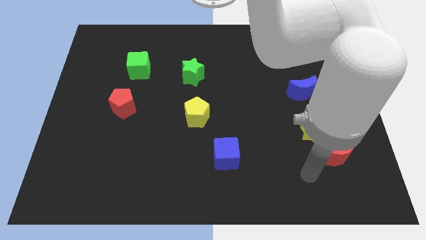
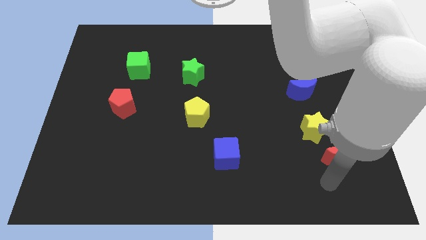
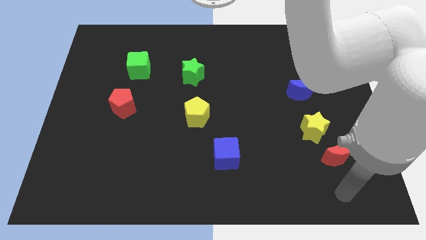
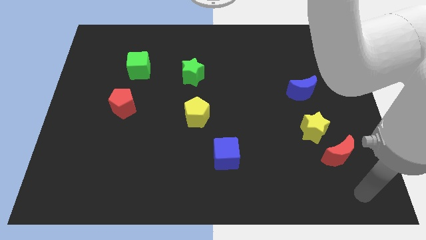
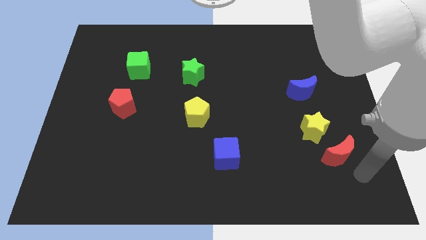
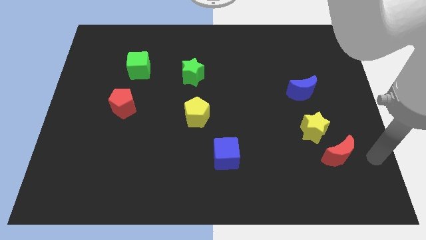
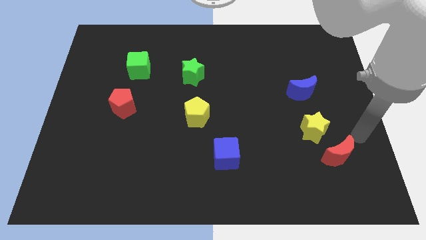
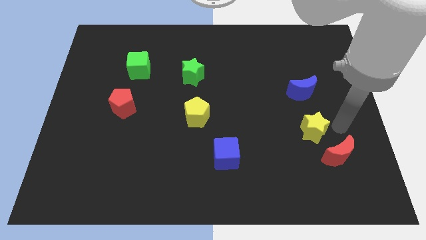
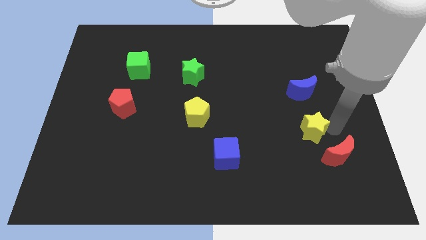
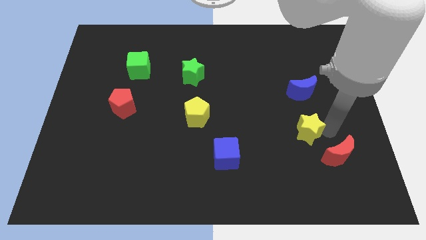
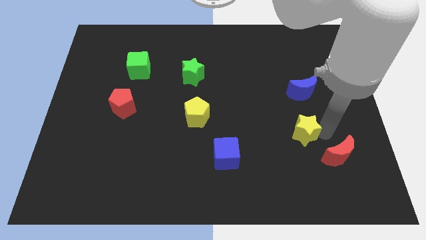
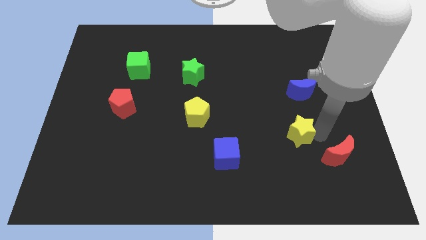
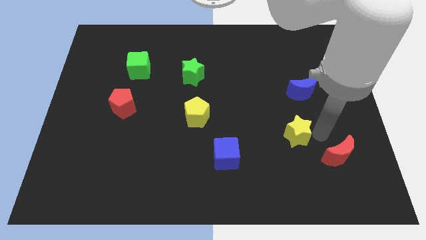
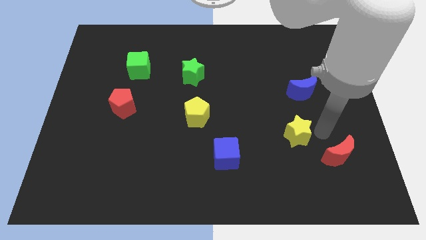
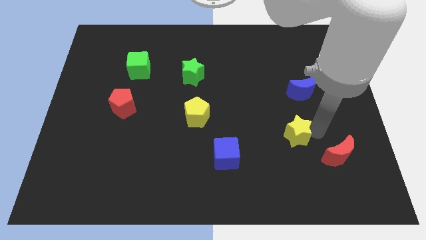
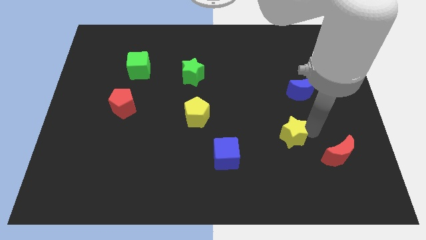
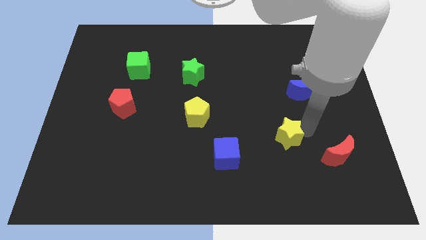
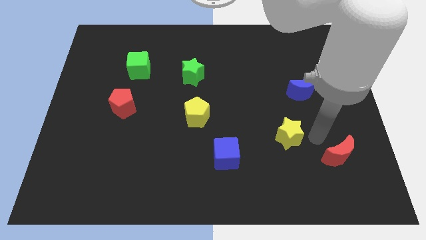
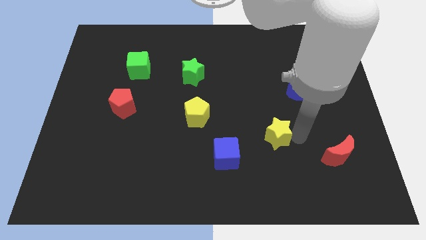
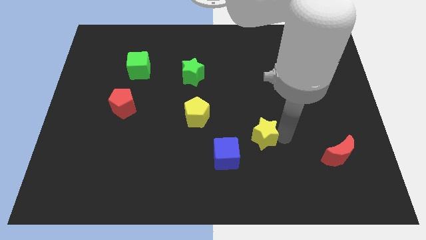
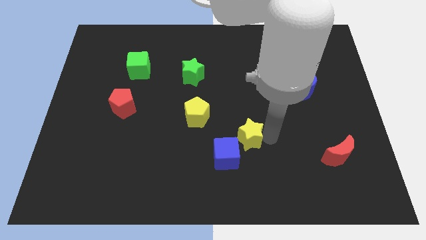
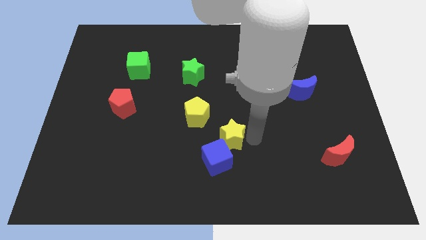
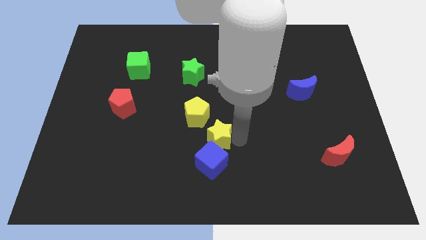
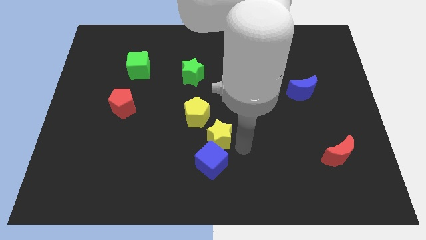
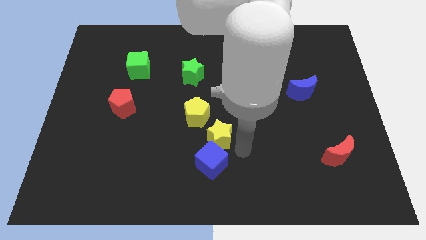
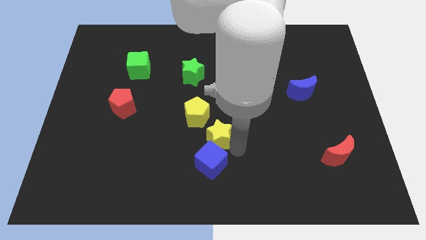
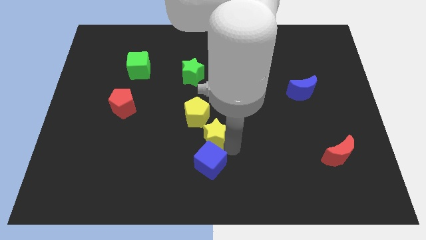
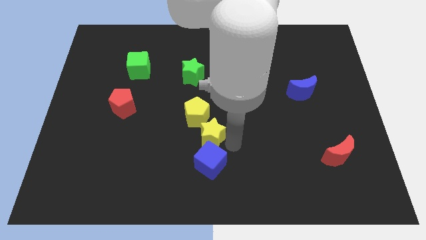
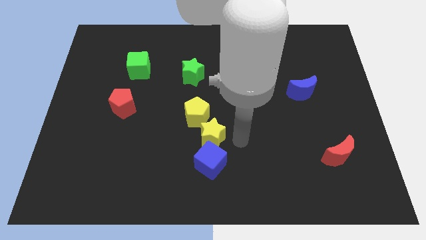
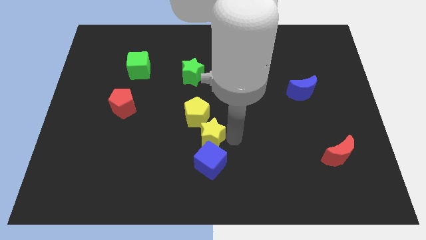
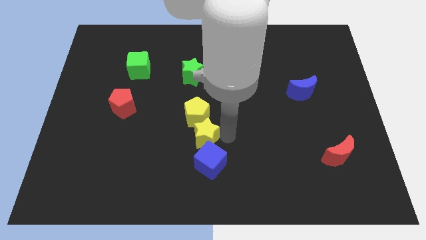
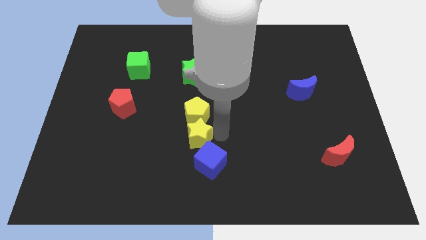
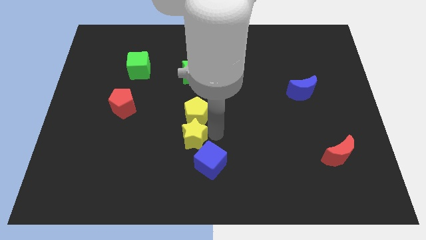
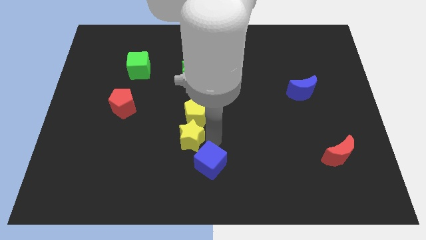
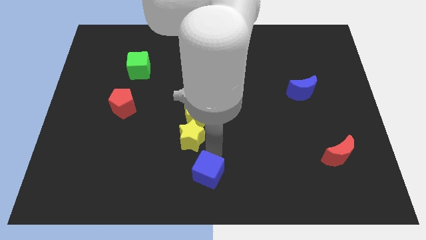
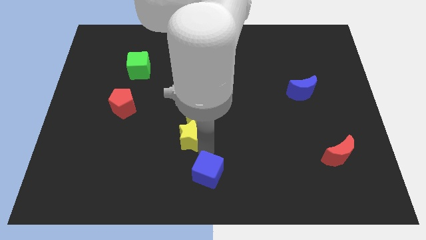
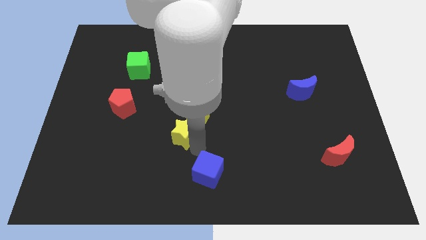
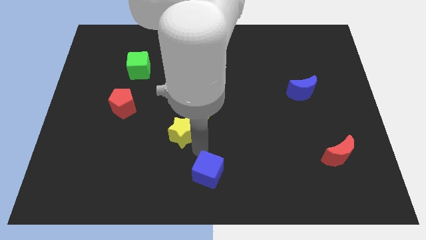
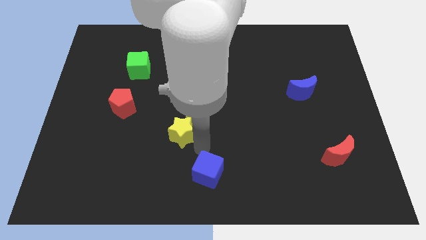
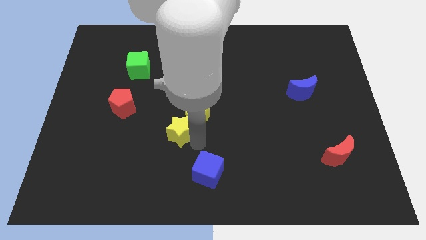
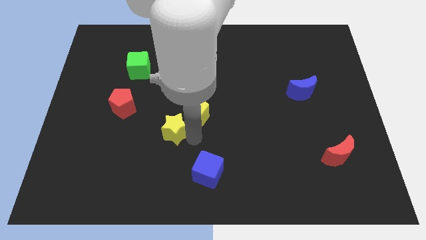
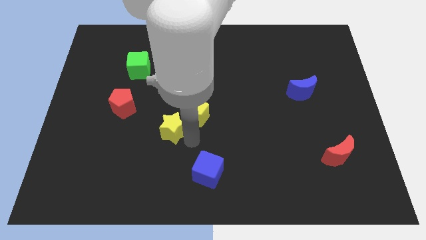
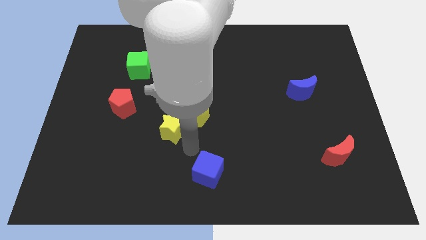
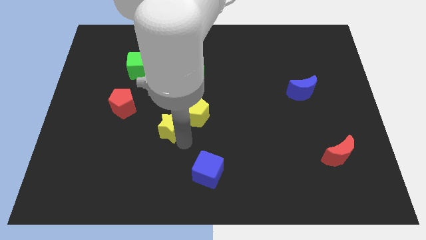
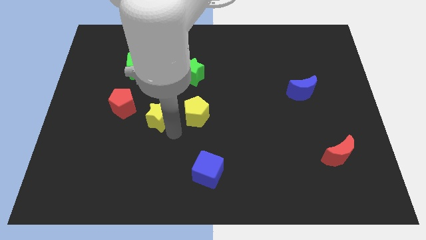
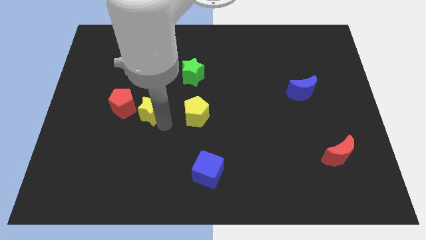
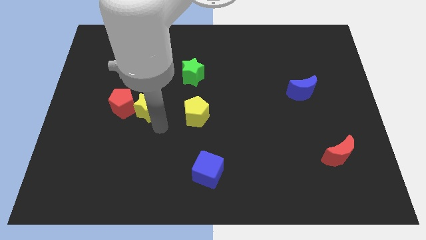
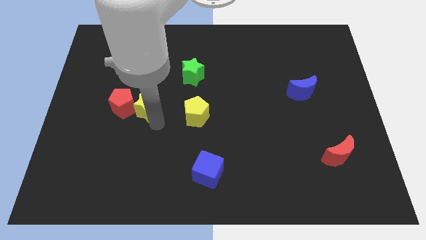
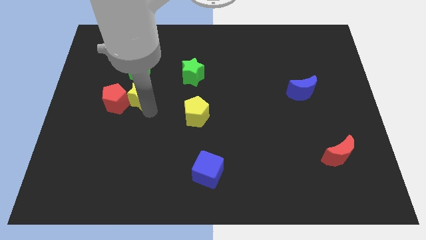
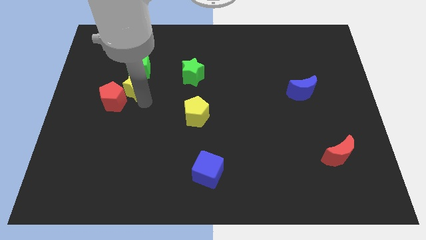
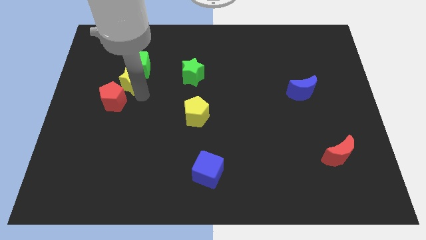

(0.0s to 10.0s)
slide the yellow star to the top of the red pentagon

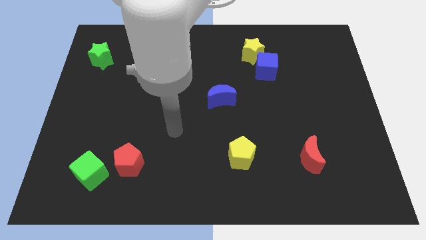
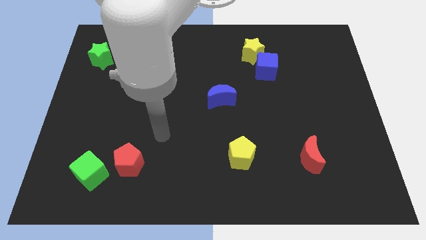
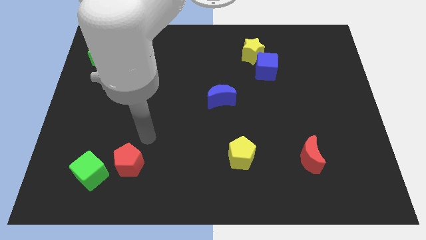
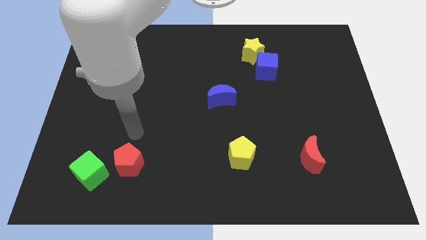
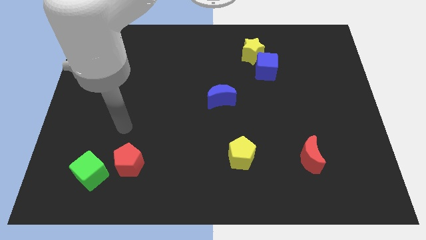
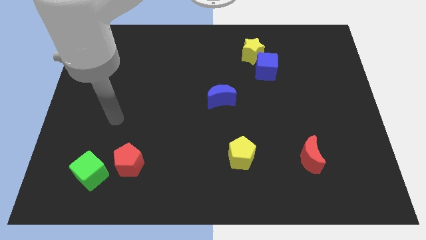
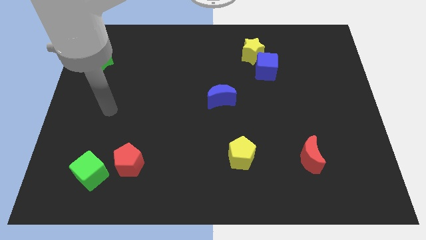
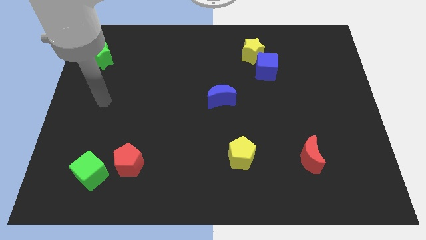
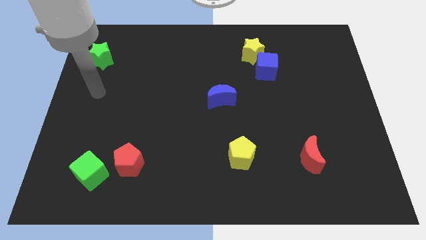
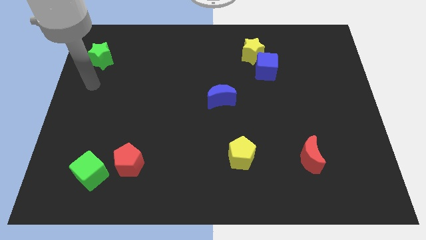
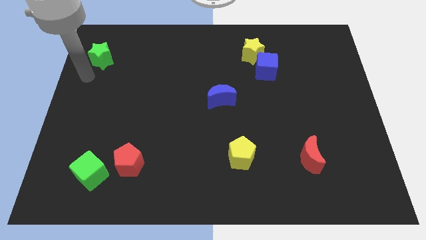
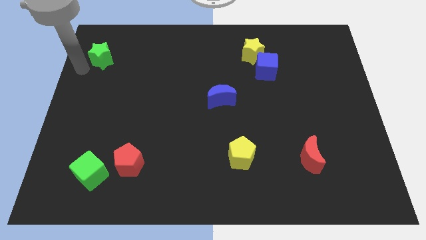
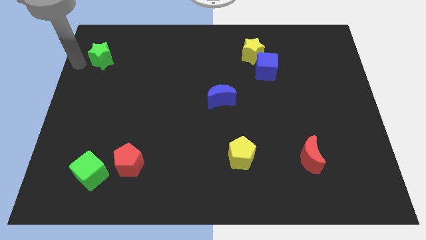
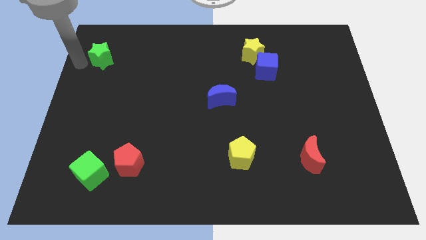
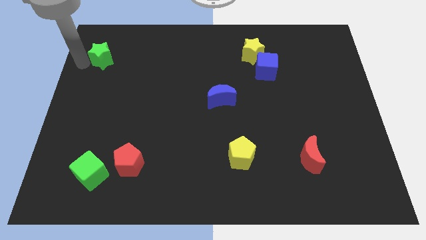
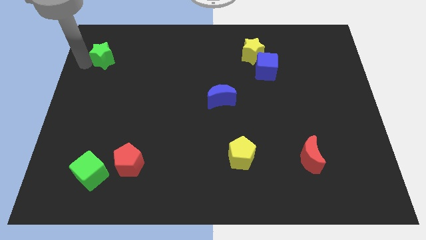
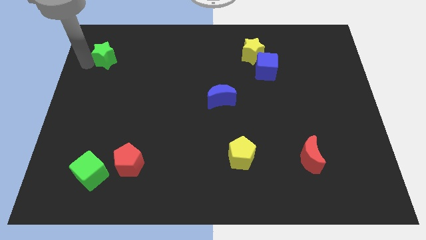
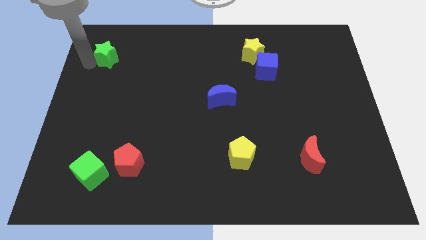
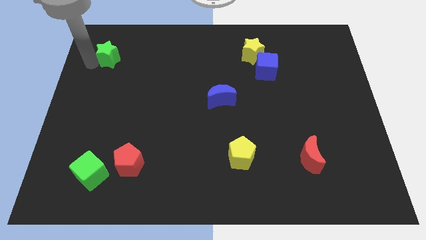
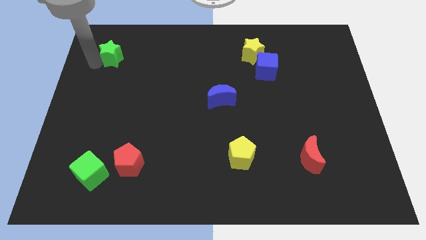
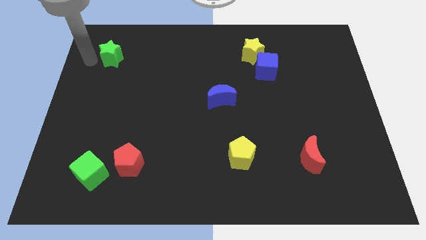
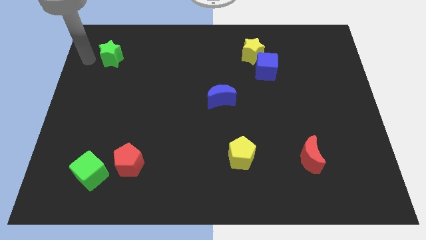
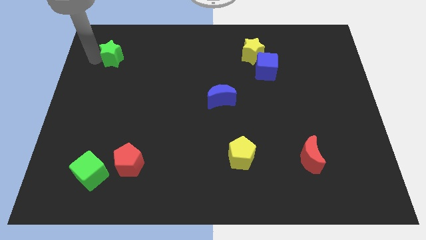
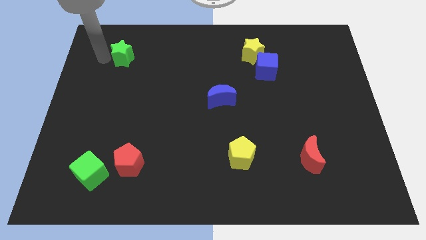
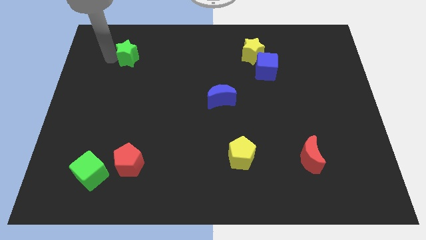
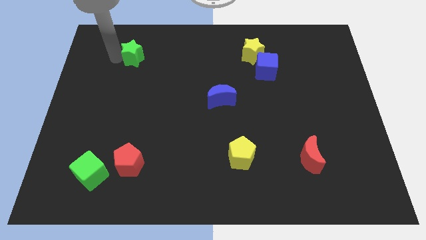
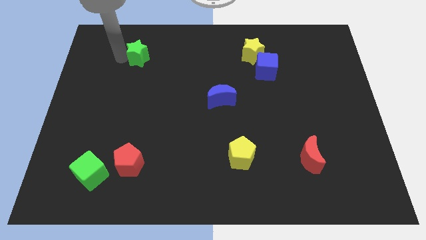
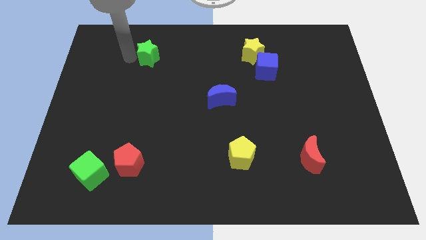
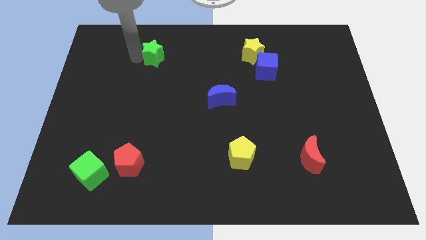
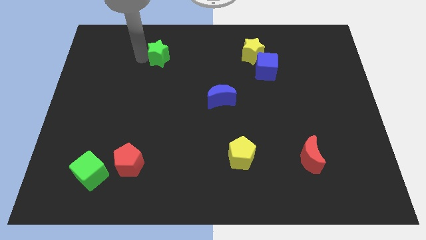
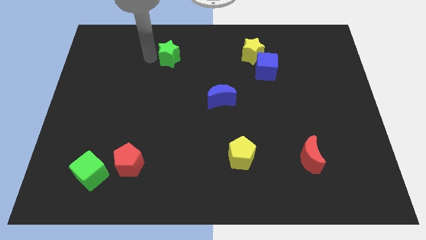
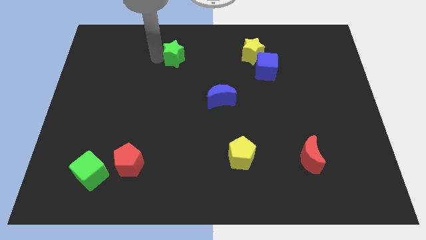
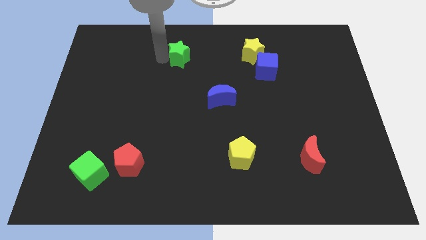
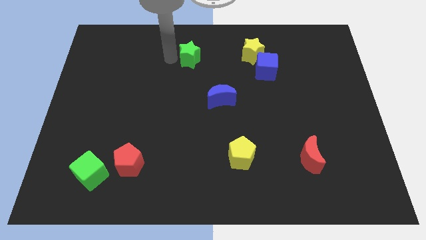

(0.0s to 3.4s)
move the green star to the left of the yellow star
